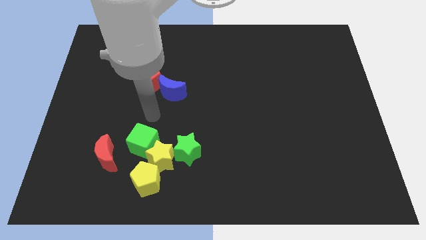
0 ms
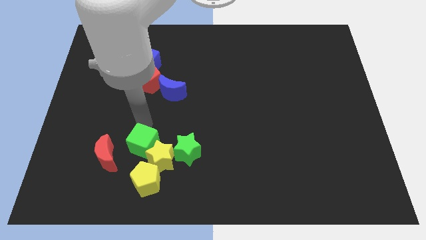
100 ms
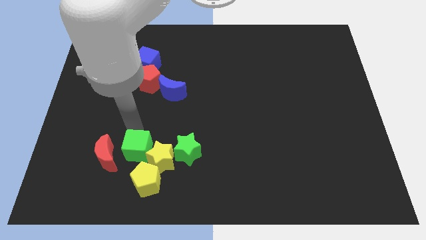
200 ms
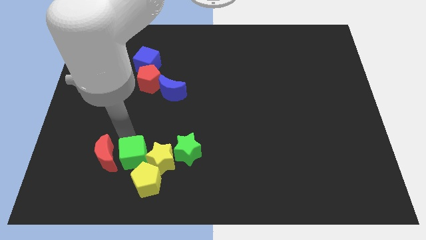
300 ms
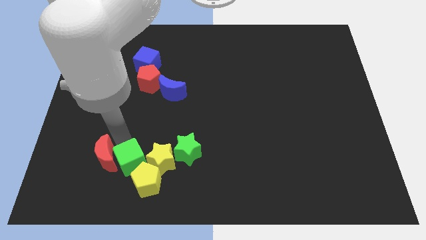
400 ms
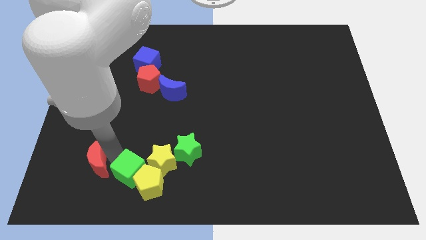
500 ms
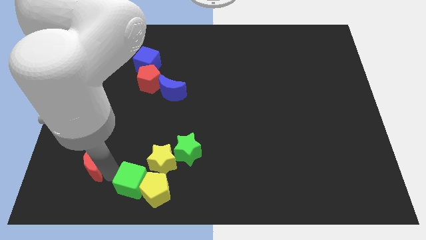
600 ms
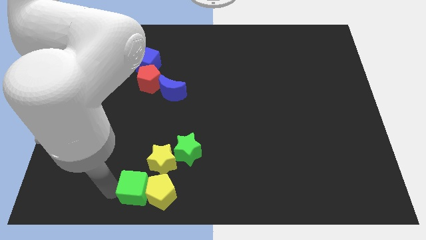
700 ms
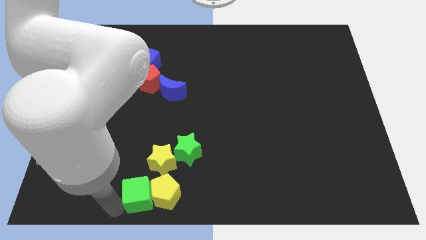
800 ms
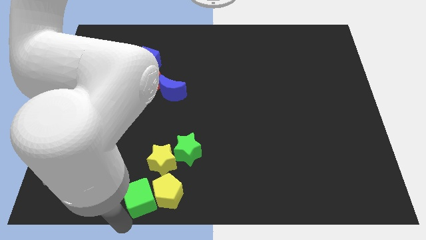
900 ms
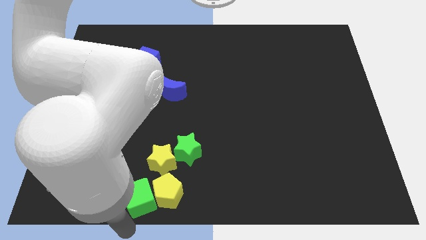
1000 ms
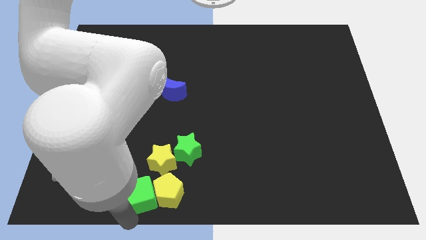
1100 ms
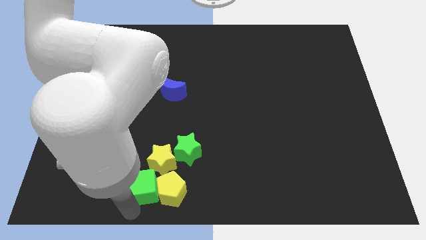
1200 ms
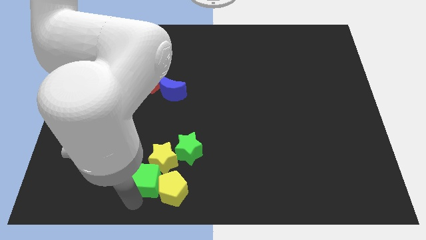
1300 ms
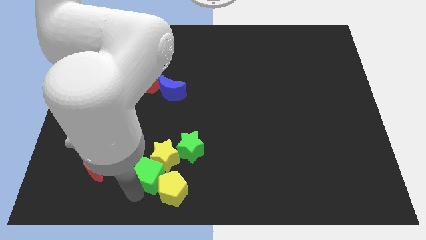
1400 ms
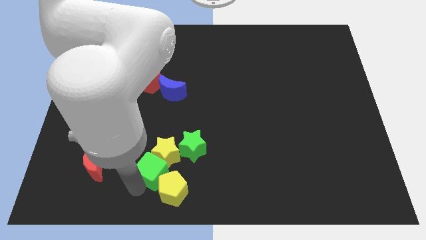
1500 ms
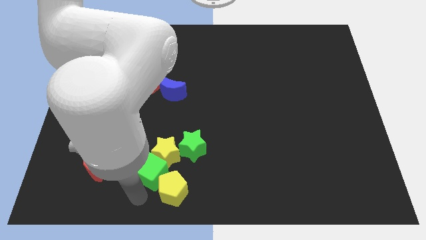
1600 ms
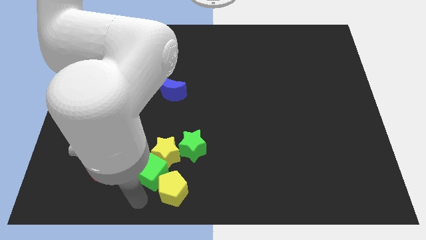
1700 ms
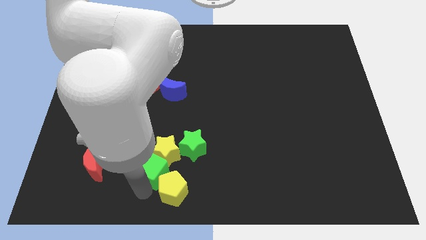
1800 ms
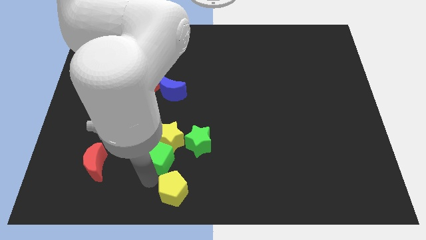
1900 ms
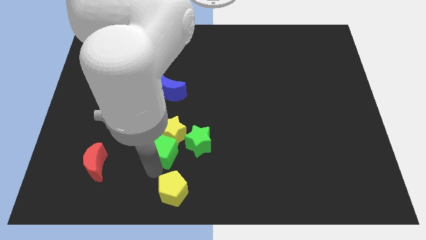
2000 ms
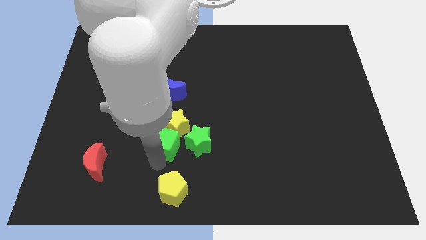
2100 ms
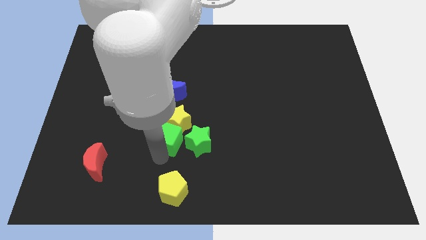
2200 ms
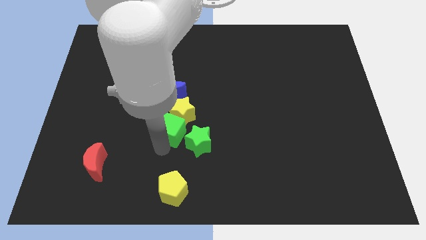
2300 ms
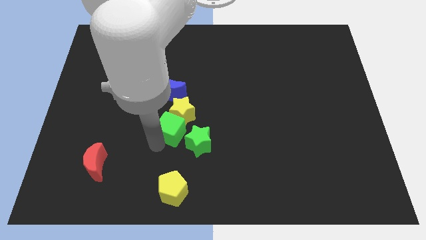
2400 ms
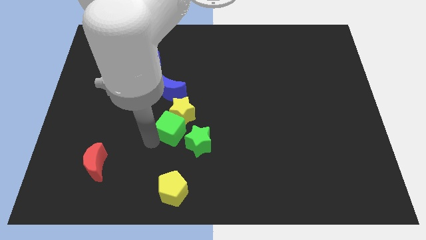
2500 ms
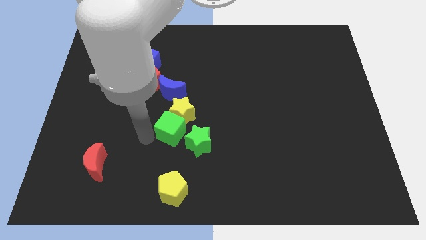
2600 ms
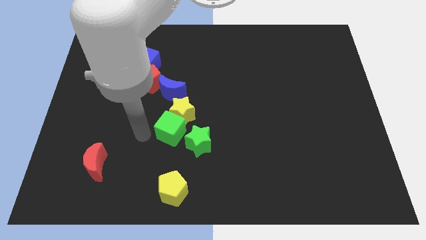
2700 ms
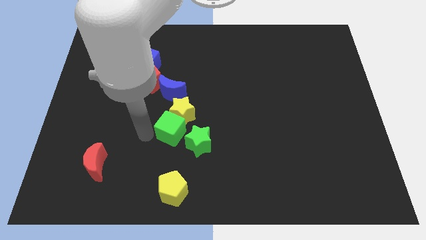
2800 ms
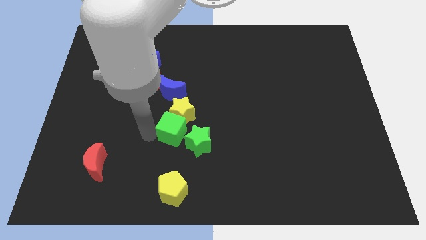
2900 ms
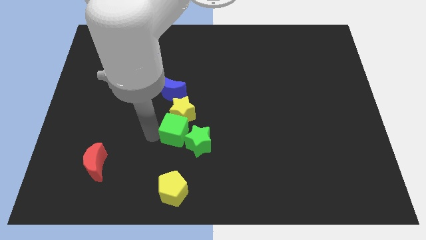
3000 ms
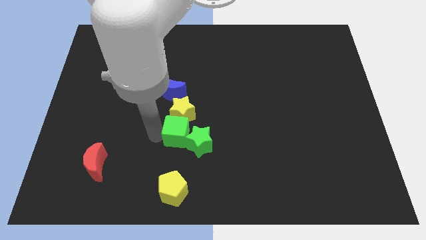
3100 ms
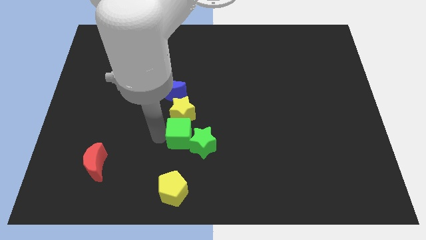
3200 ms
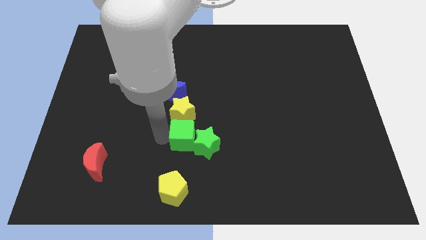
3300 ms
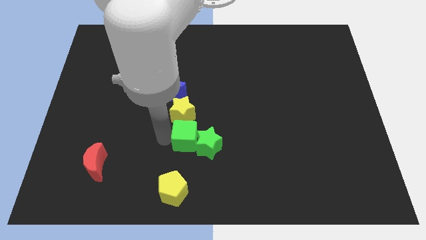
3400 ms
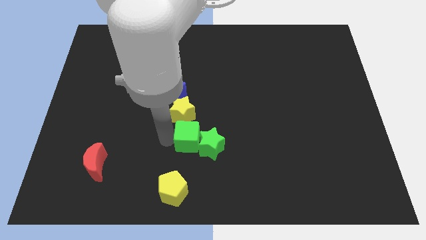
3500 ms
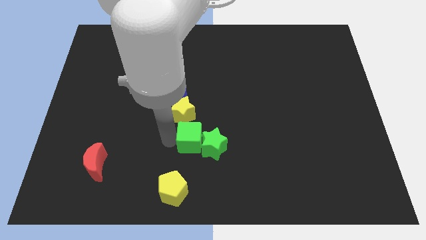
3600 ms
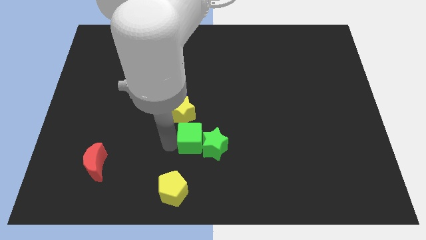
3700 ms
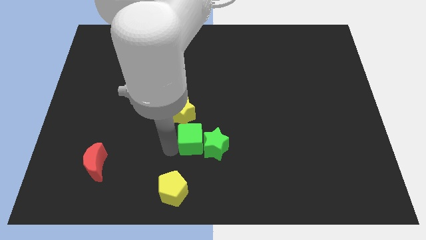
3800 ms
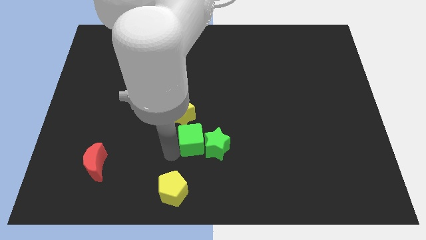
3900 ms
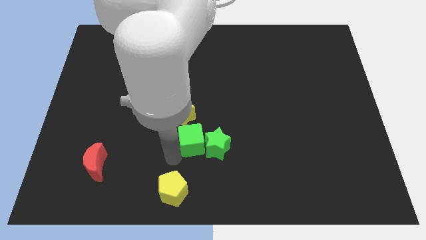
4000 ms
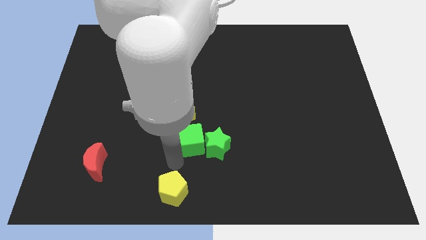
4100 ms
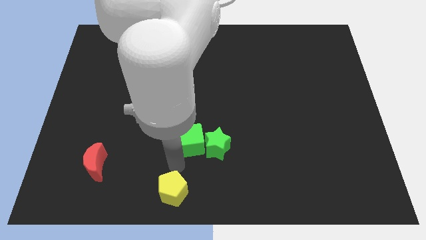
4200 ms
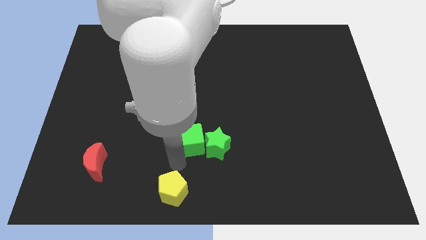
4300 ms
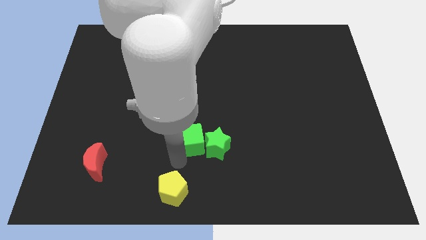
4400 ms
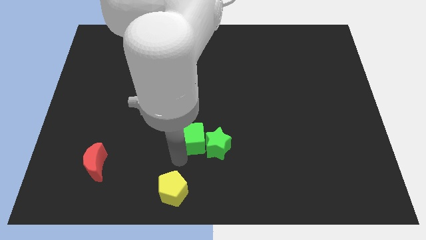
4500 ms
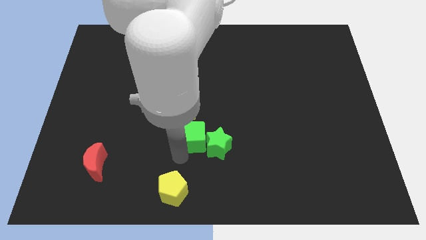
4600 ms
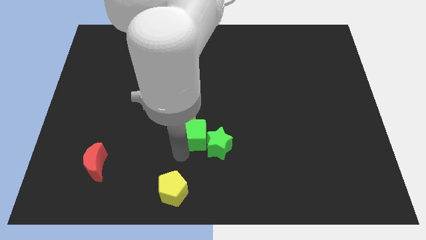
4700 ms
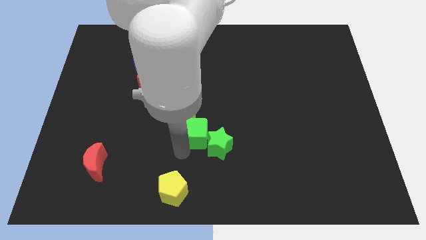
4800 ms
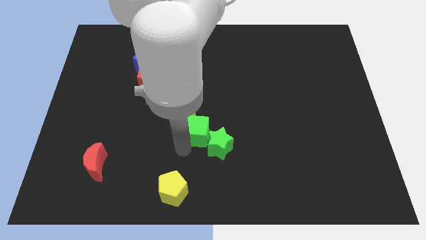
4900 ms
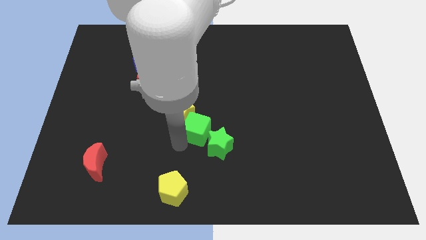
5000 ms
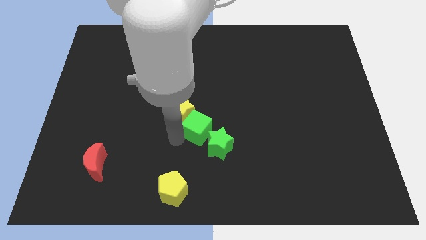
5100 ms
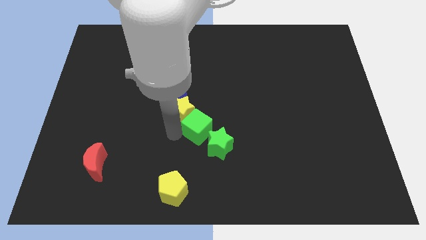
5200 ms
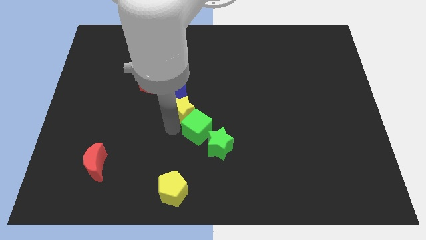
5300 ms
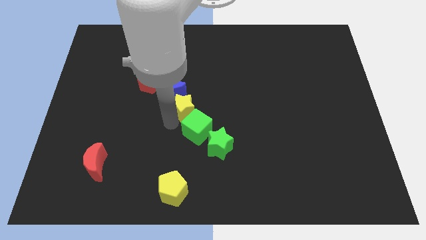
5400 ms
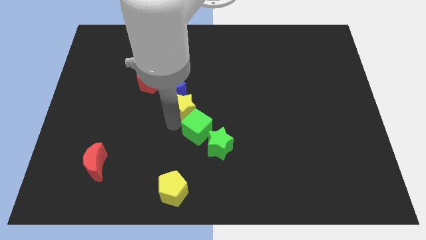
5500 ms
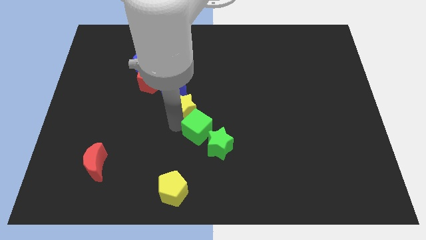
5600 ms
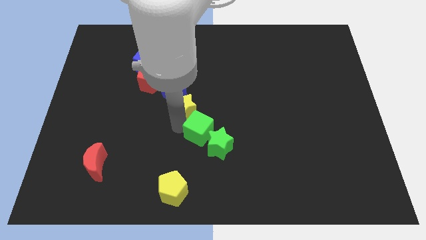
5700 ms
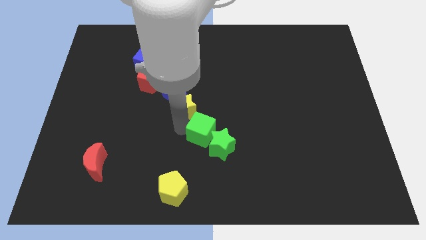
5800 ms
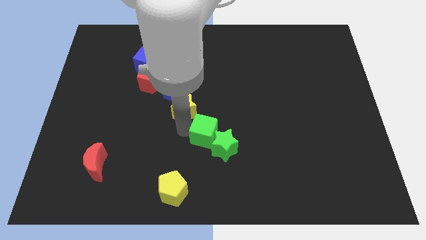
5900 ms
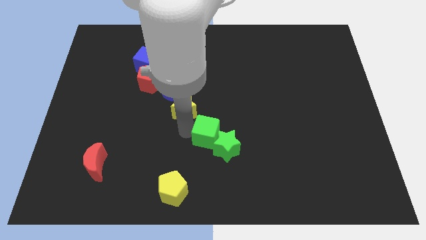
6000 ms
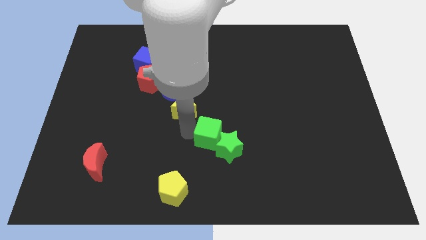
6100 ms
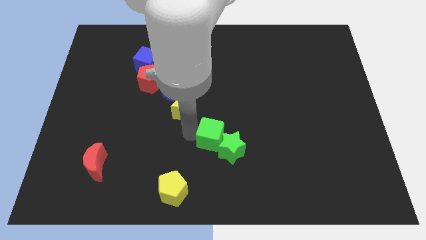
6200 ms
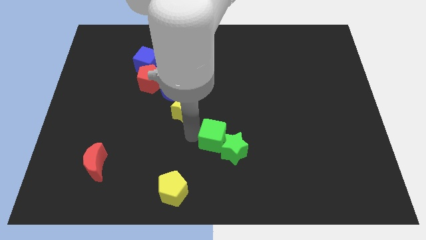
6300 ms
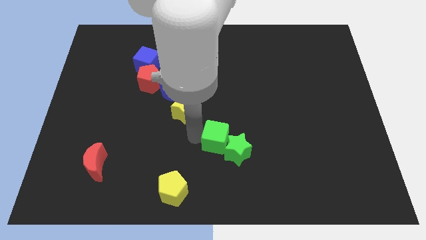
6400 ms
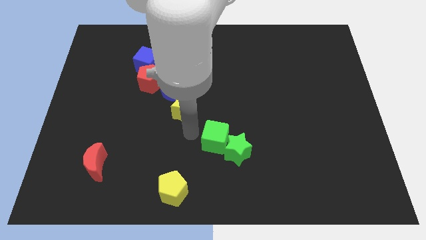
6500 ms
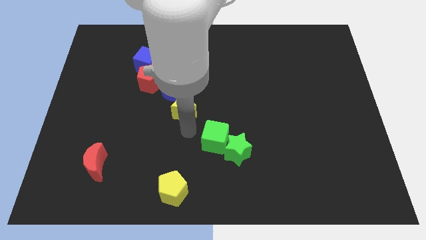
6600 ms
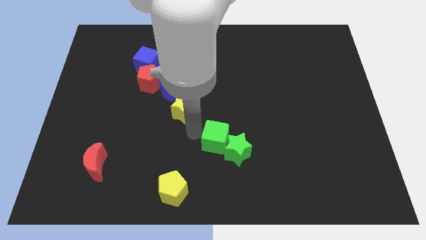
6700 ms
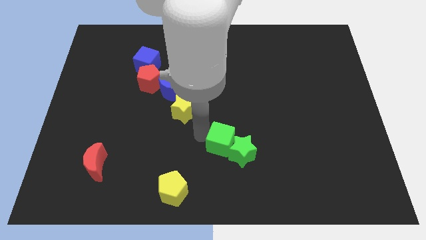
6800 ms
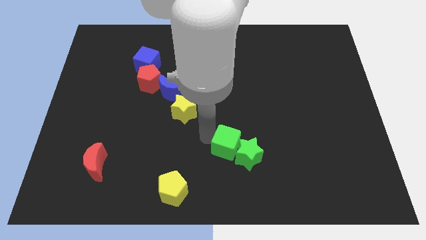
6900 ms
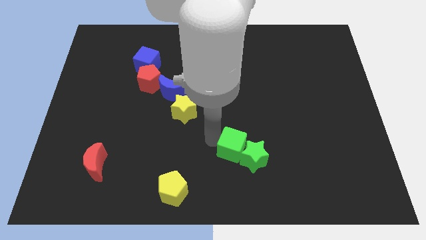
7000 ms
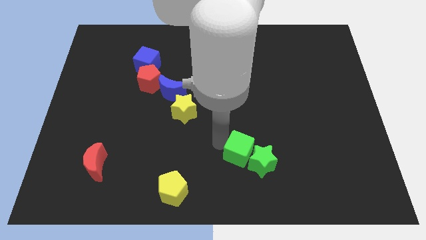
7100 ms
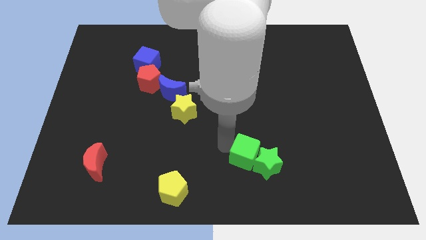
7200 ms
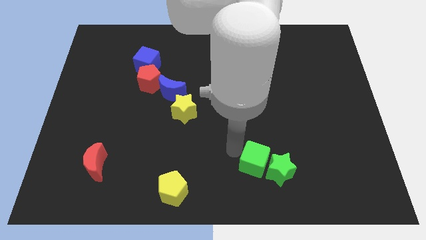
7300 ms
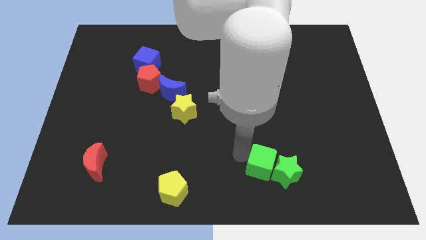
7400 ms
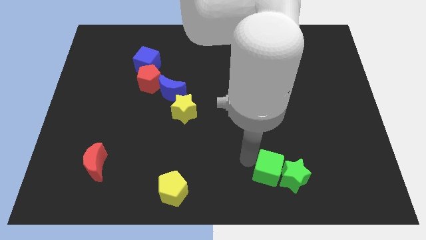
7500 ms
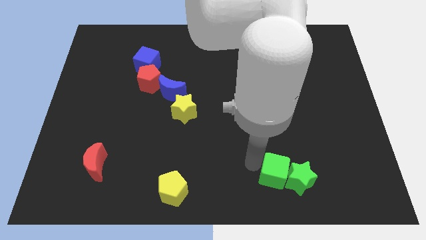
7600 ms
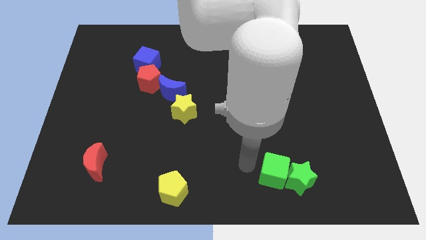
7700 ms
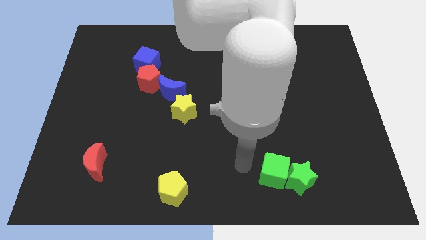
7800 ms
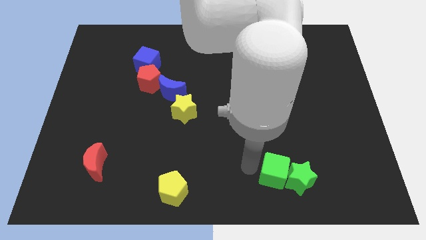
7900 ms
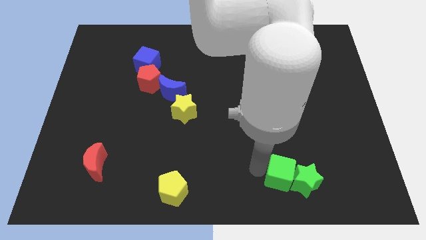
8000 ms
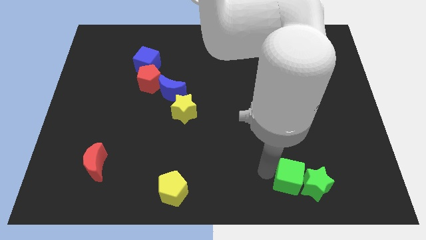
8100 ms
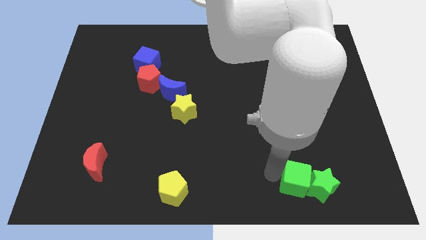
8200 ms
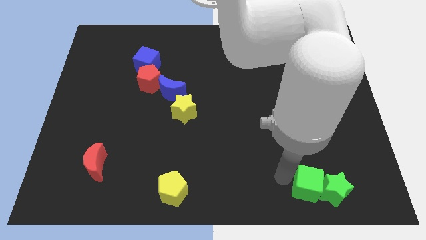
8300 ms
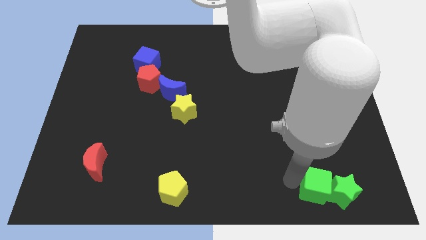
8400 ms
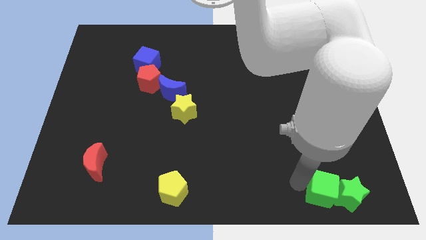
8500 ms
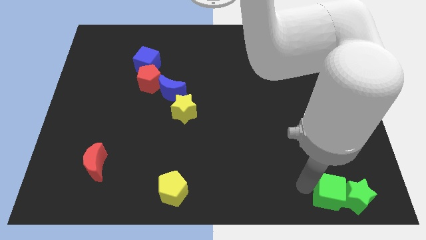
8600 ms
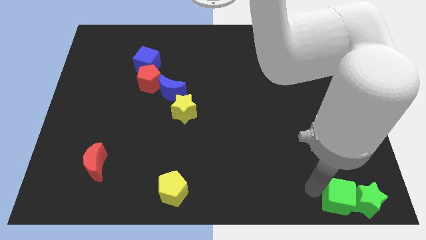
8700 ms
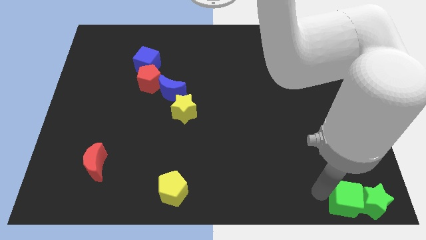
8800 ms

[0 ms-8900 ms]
push the green cube to the bottom right
